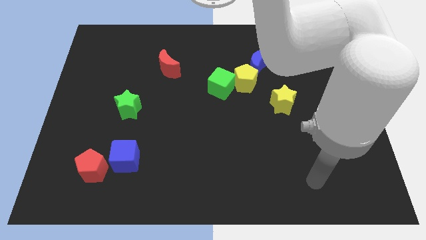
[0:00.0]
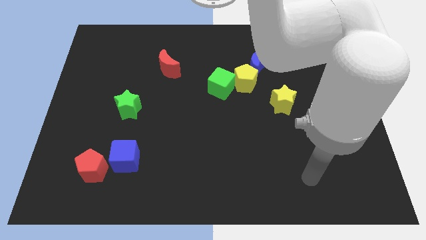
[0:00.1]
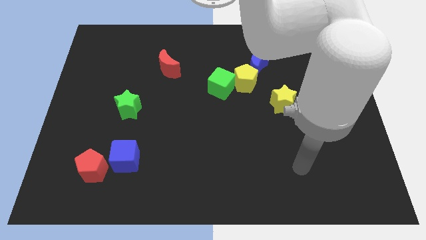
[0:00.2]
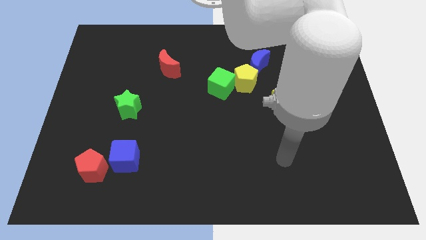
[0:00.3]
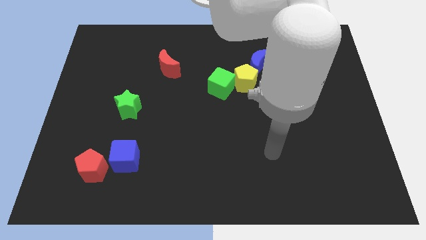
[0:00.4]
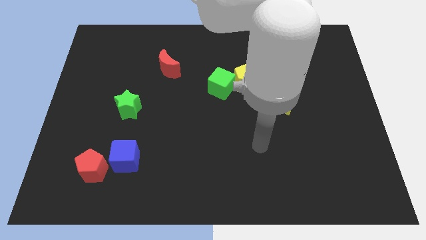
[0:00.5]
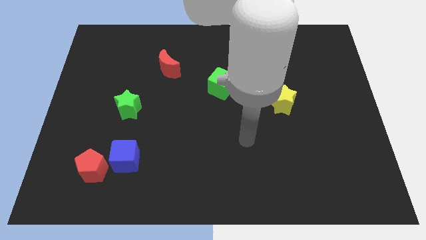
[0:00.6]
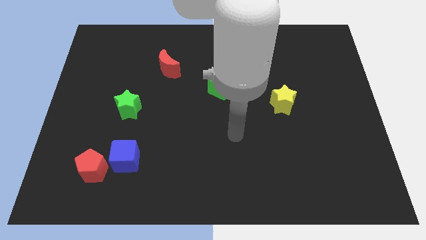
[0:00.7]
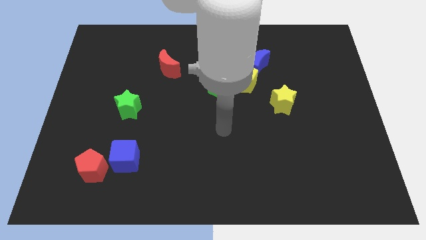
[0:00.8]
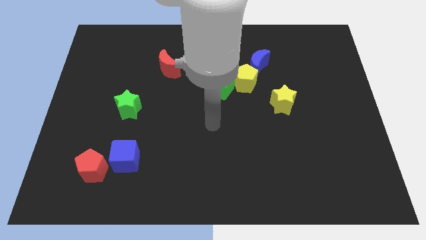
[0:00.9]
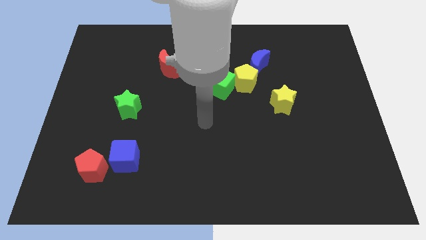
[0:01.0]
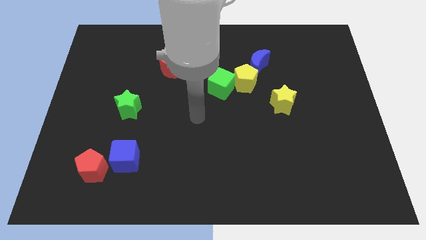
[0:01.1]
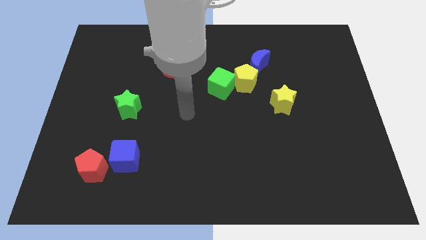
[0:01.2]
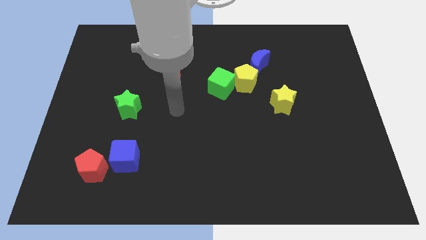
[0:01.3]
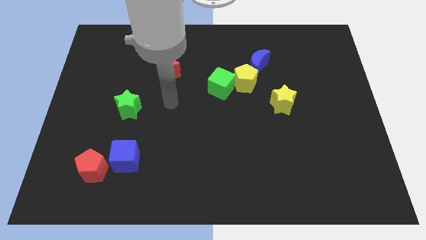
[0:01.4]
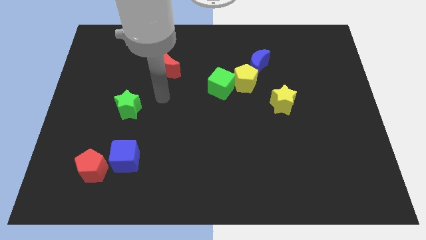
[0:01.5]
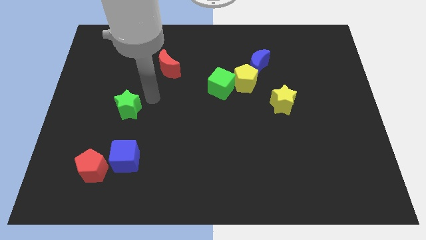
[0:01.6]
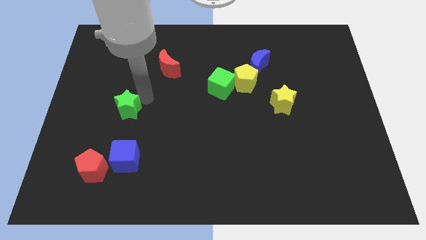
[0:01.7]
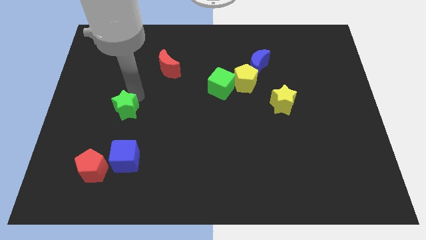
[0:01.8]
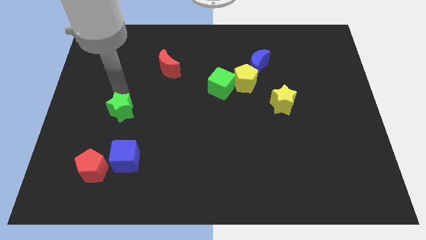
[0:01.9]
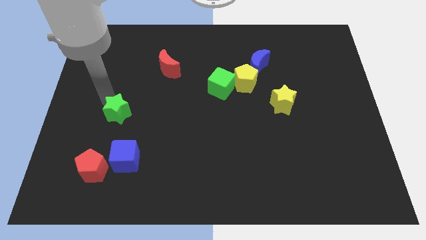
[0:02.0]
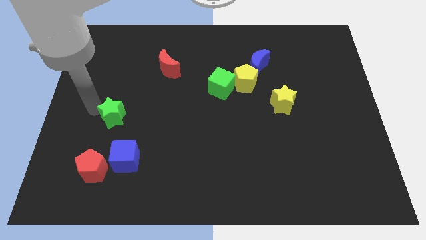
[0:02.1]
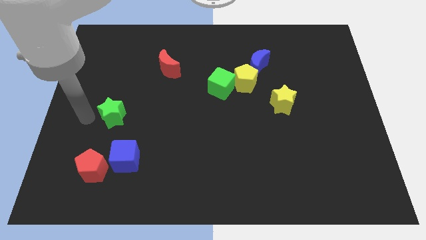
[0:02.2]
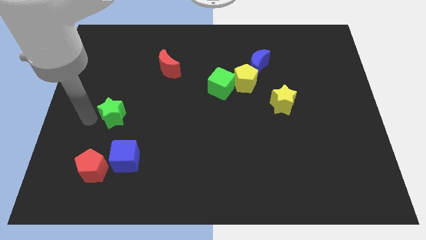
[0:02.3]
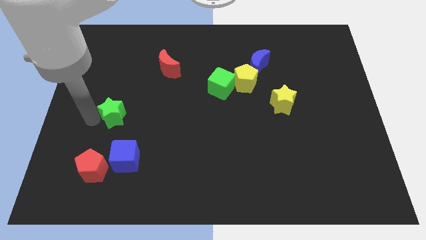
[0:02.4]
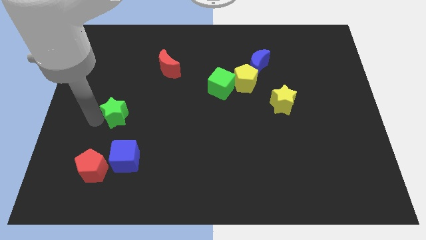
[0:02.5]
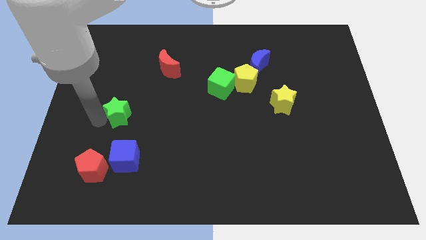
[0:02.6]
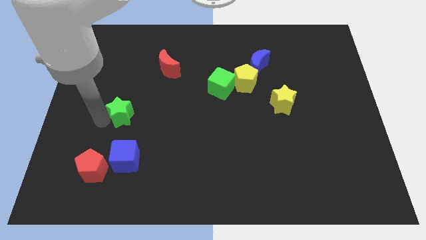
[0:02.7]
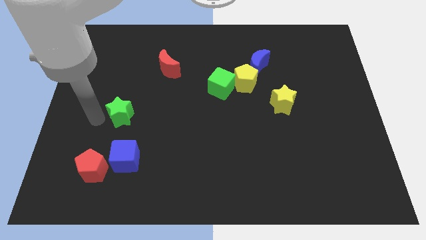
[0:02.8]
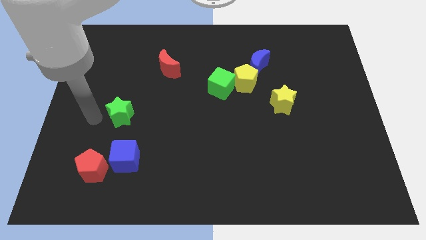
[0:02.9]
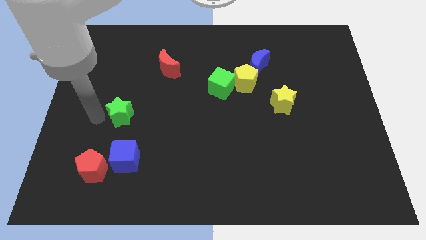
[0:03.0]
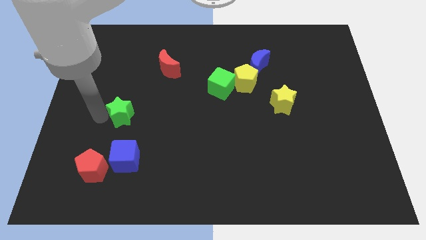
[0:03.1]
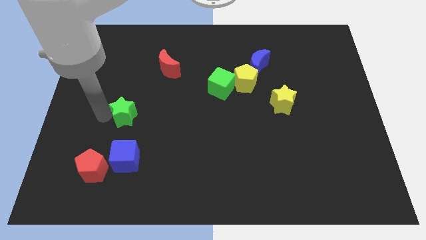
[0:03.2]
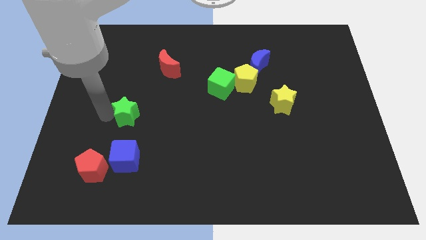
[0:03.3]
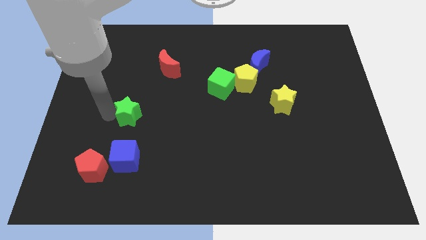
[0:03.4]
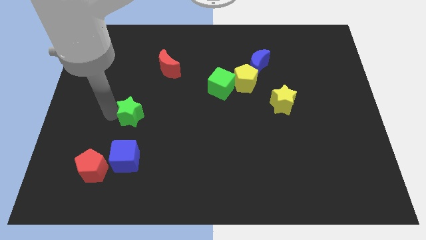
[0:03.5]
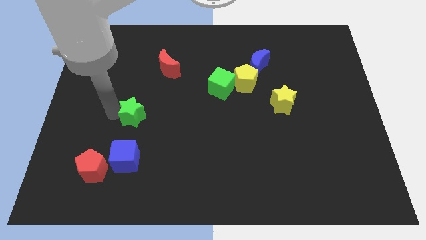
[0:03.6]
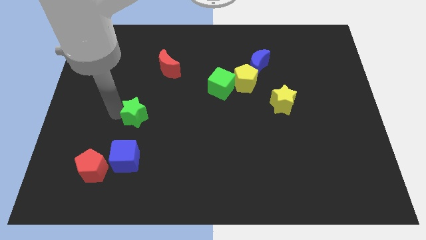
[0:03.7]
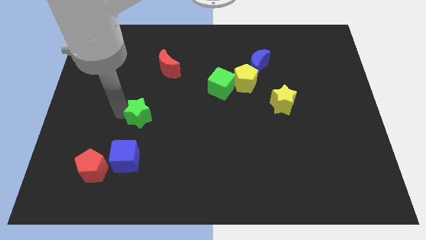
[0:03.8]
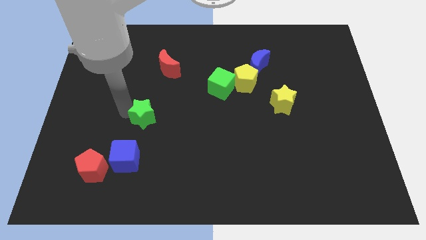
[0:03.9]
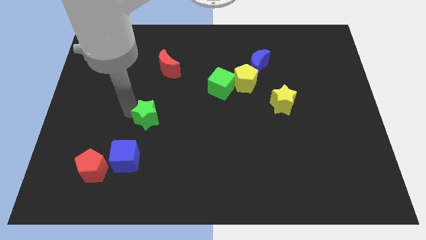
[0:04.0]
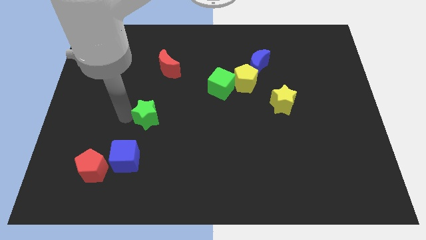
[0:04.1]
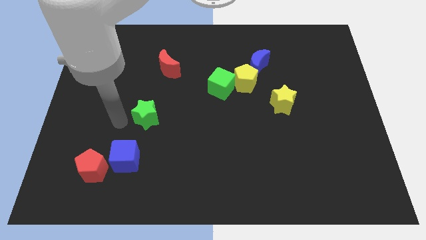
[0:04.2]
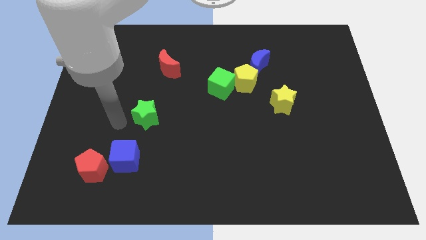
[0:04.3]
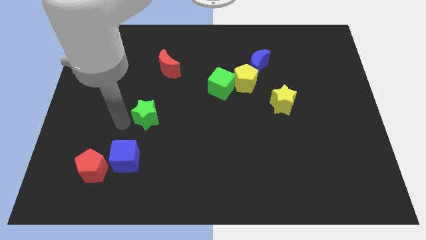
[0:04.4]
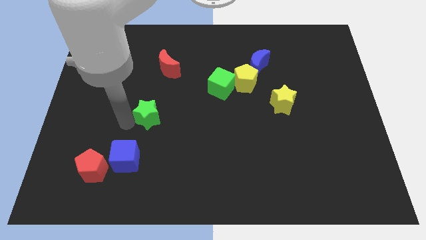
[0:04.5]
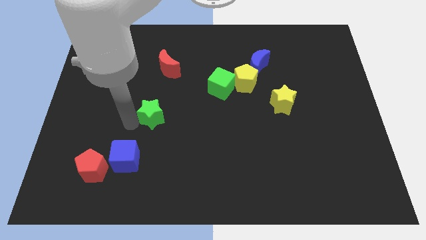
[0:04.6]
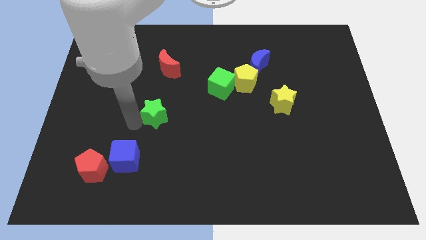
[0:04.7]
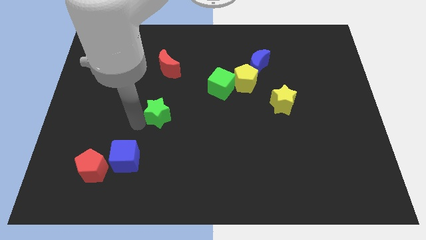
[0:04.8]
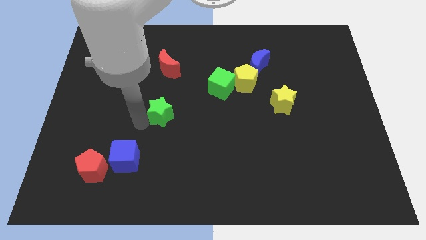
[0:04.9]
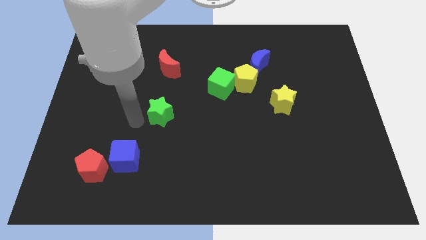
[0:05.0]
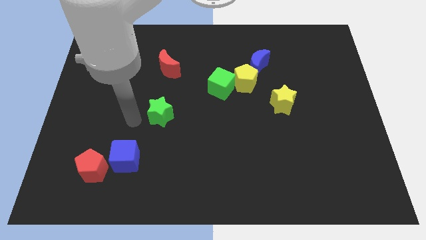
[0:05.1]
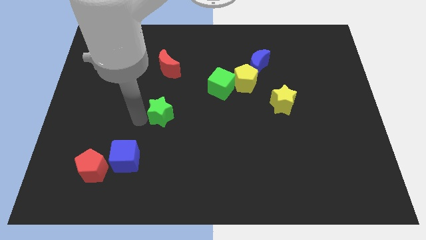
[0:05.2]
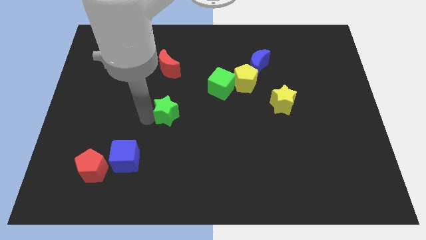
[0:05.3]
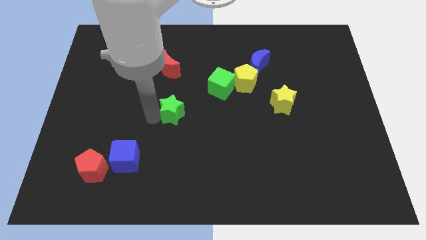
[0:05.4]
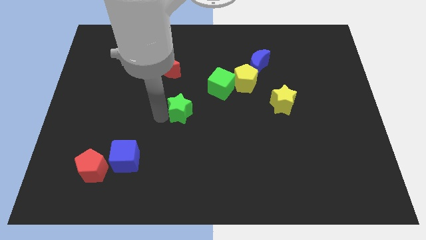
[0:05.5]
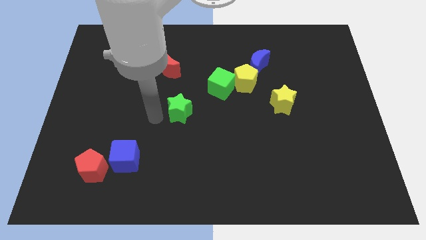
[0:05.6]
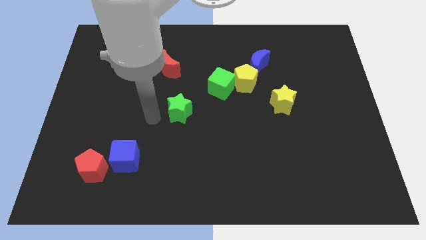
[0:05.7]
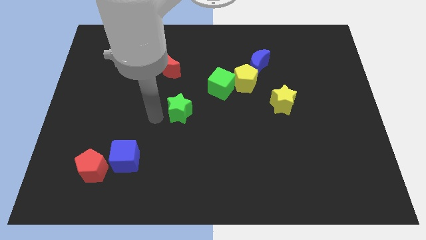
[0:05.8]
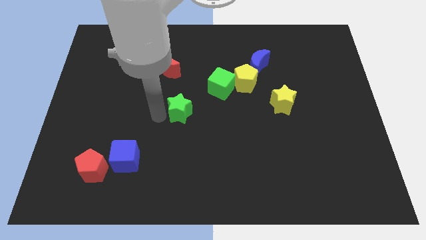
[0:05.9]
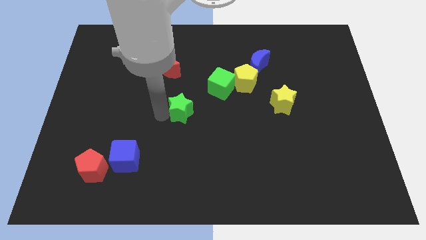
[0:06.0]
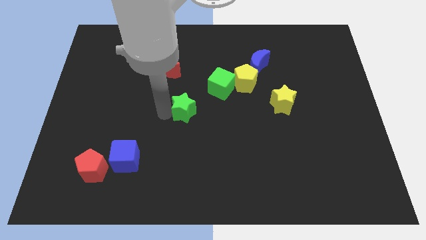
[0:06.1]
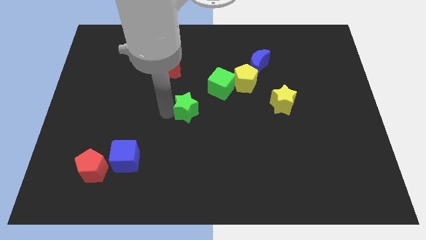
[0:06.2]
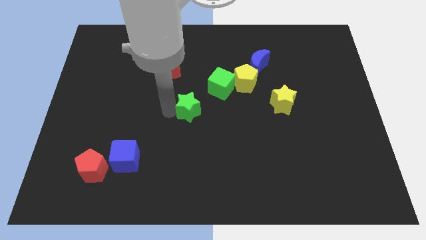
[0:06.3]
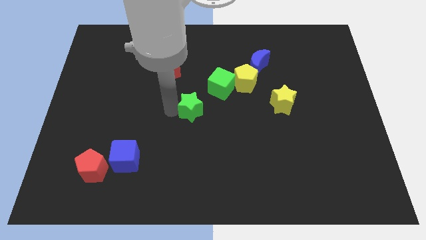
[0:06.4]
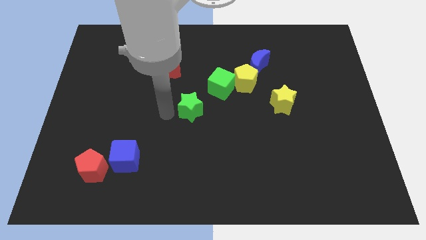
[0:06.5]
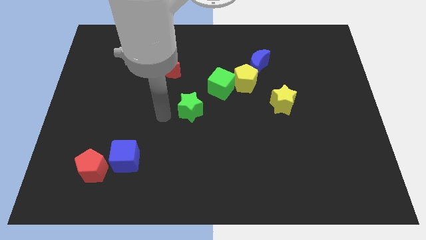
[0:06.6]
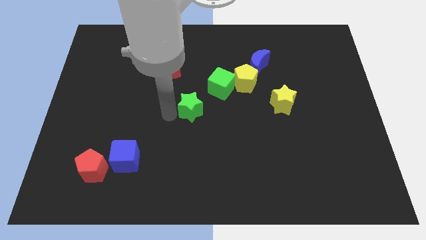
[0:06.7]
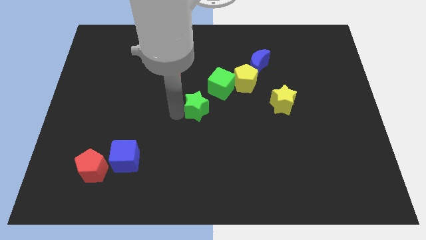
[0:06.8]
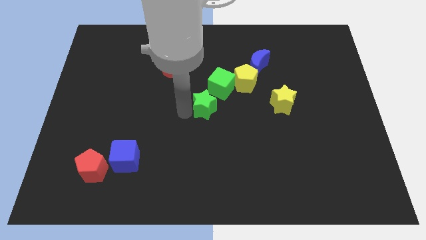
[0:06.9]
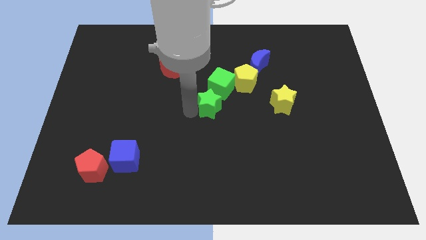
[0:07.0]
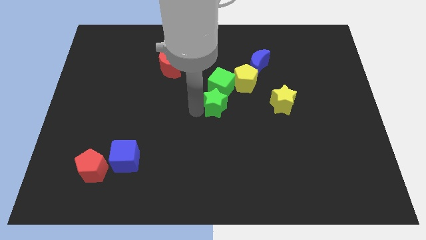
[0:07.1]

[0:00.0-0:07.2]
slide the green star right

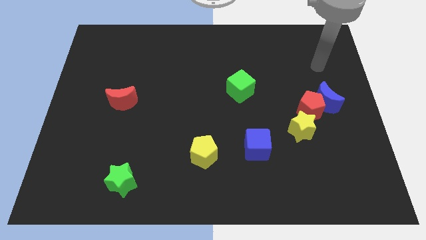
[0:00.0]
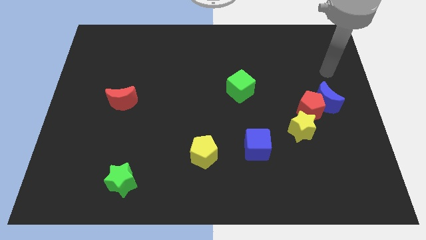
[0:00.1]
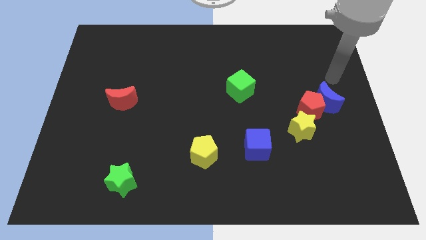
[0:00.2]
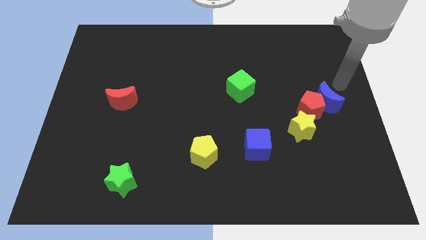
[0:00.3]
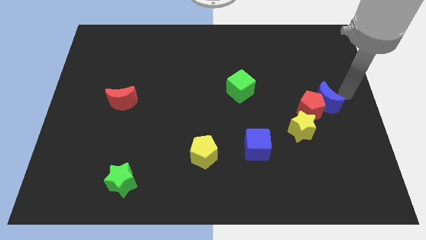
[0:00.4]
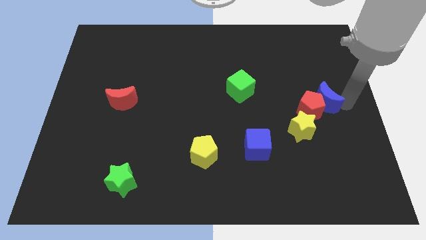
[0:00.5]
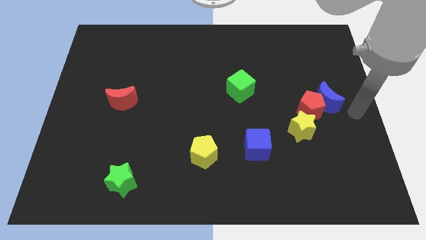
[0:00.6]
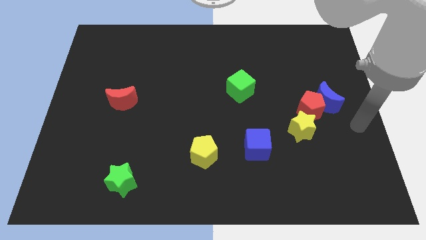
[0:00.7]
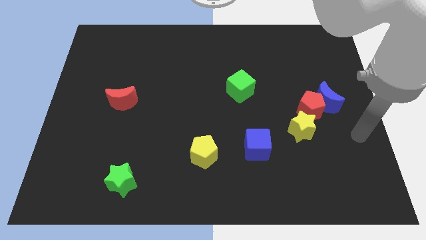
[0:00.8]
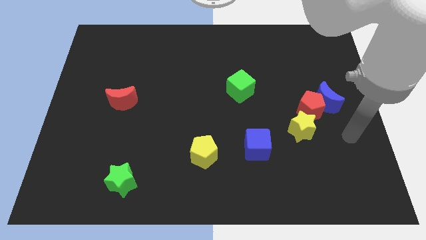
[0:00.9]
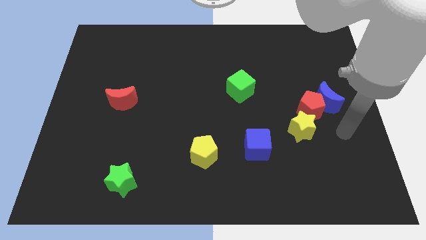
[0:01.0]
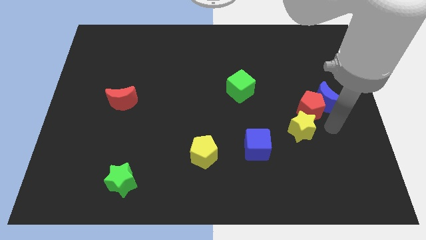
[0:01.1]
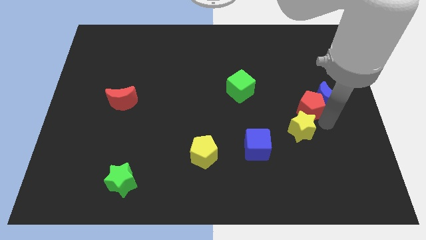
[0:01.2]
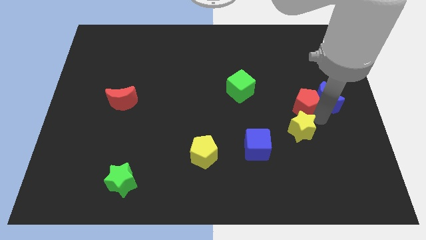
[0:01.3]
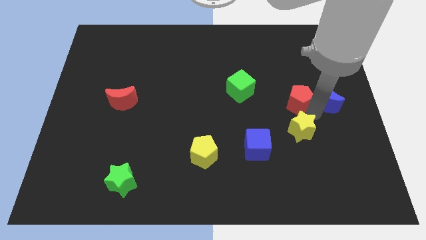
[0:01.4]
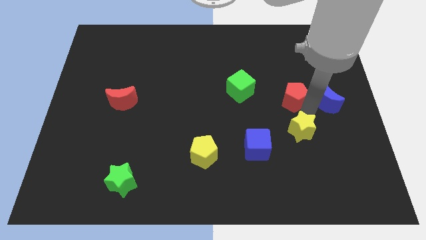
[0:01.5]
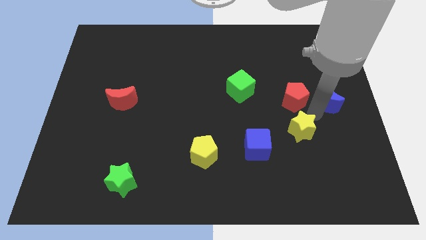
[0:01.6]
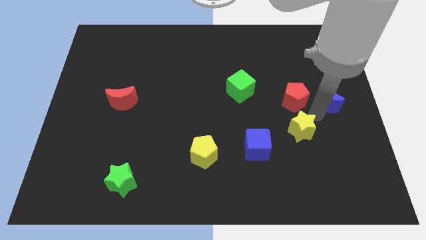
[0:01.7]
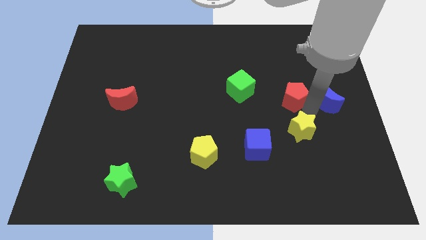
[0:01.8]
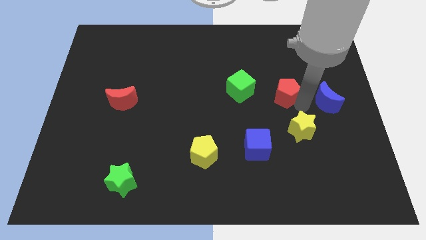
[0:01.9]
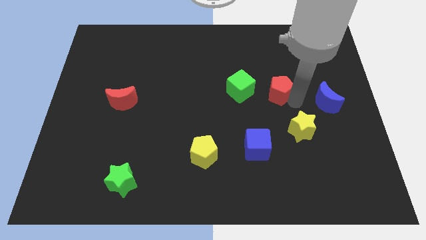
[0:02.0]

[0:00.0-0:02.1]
slightly push the red pentagon up and left diagonally
